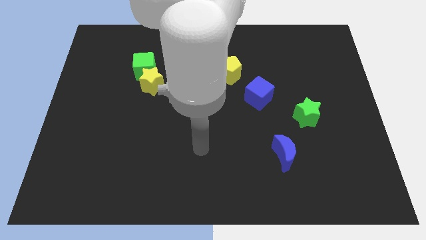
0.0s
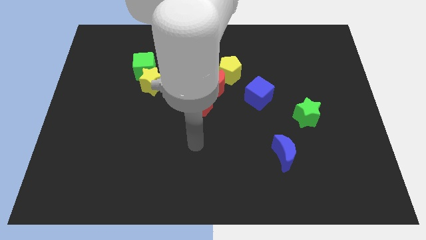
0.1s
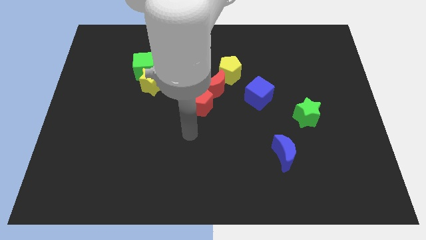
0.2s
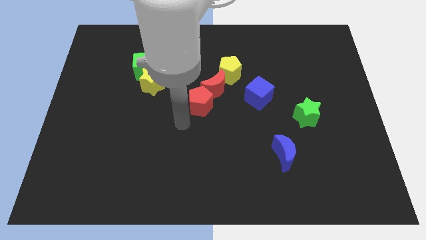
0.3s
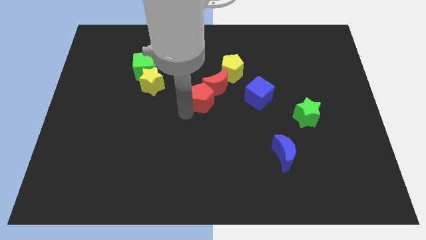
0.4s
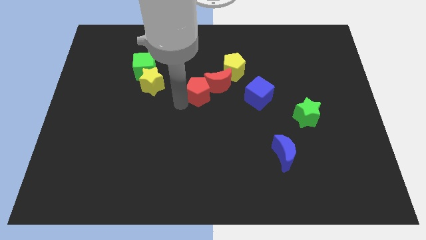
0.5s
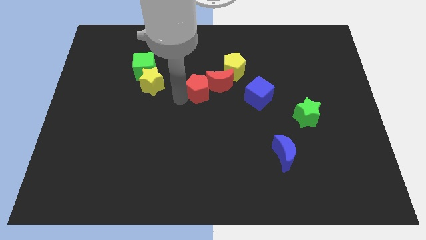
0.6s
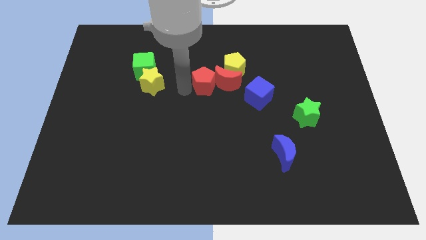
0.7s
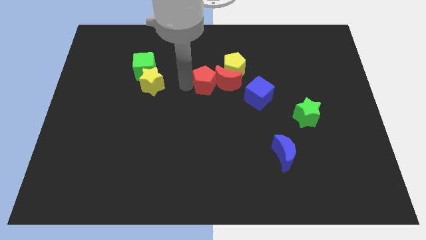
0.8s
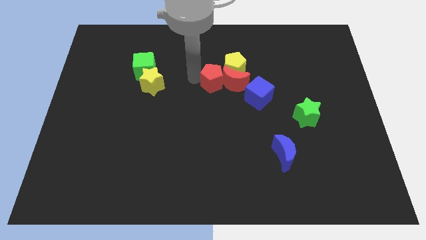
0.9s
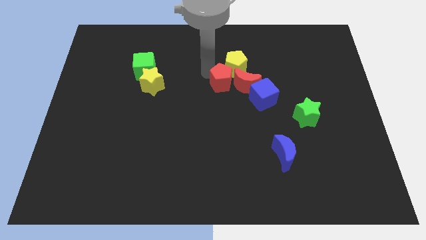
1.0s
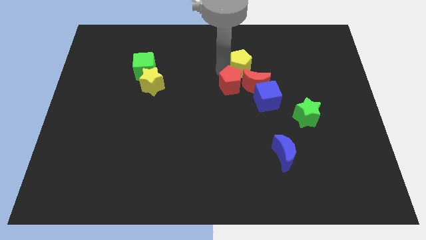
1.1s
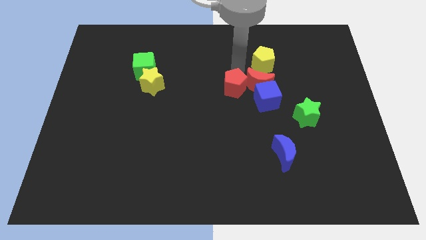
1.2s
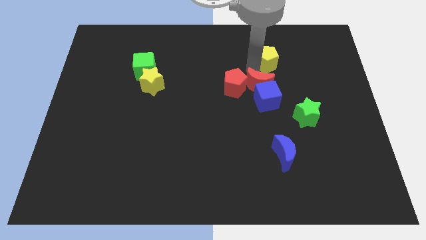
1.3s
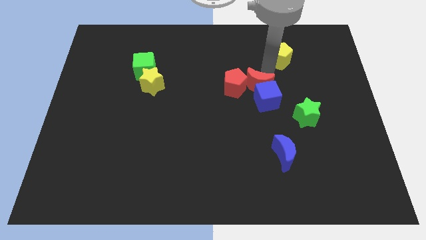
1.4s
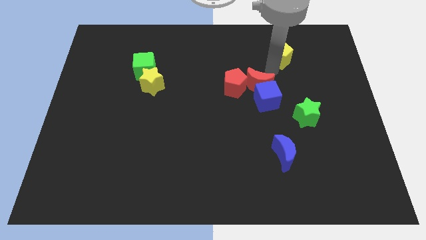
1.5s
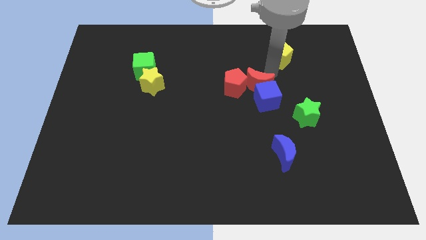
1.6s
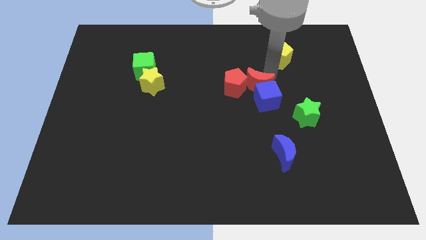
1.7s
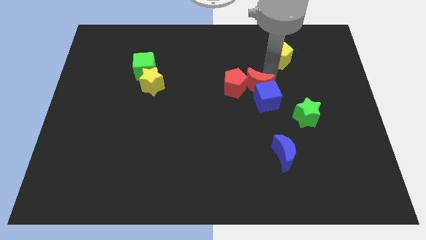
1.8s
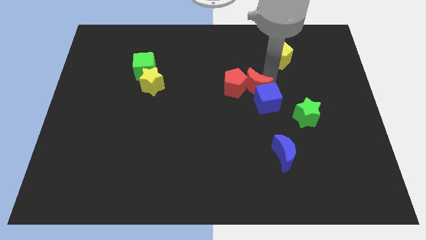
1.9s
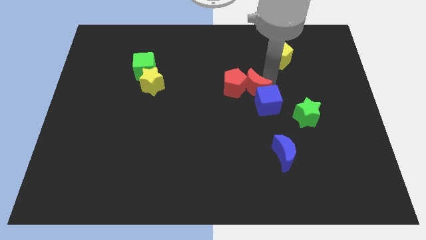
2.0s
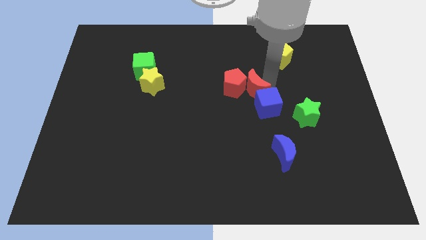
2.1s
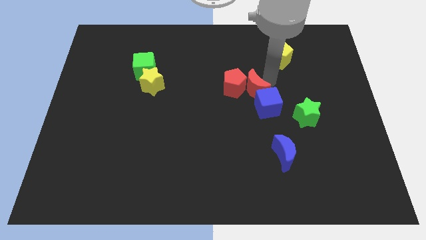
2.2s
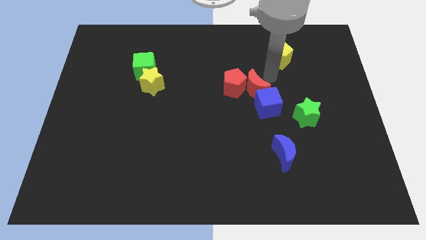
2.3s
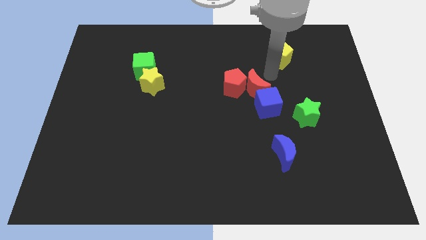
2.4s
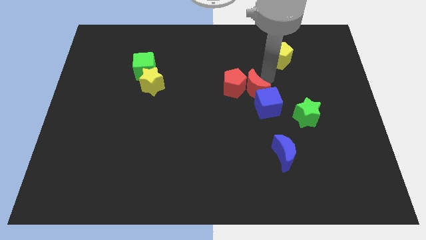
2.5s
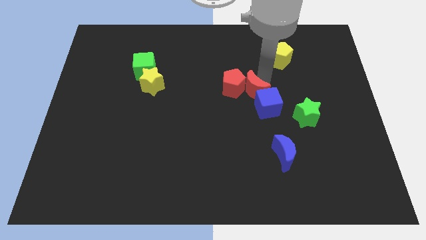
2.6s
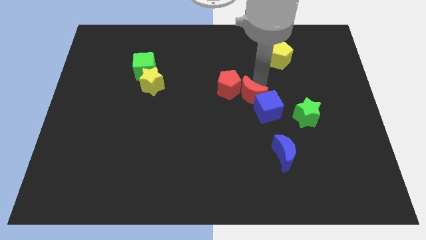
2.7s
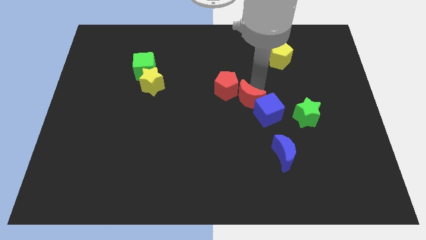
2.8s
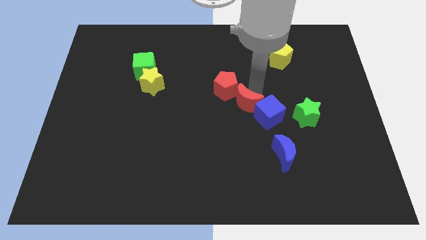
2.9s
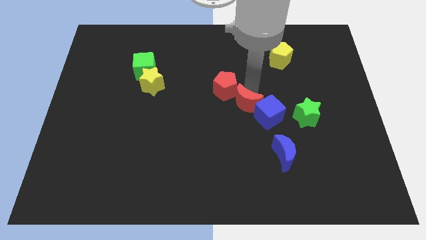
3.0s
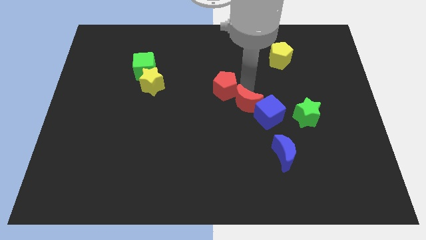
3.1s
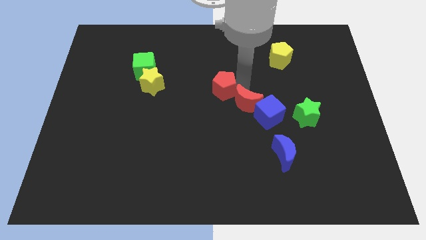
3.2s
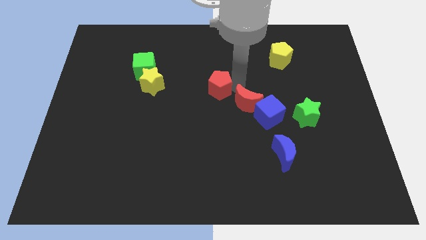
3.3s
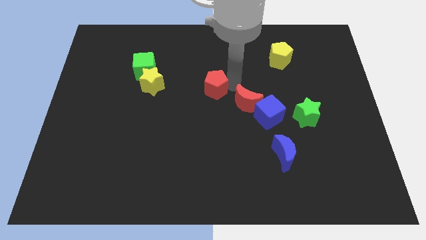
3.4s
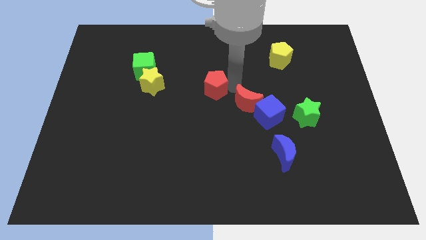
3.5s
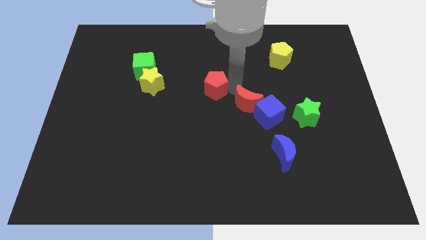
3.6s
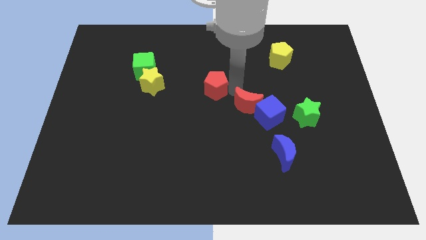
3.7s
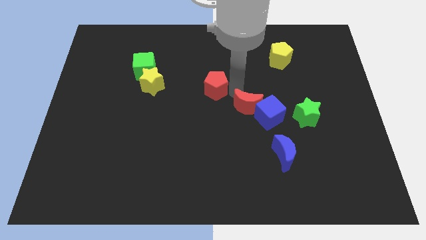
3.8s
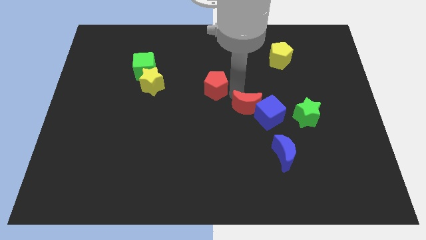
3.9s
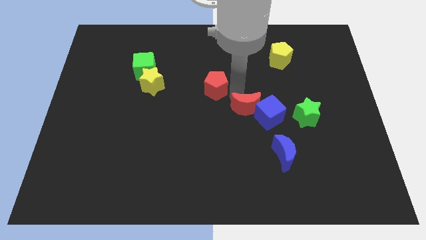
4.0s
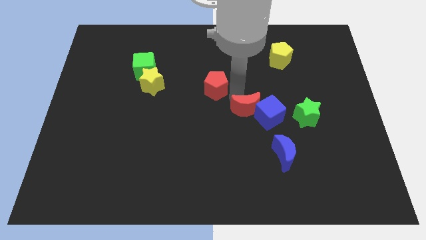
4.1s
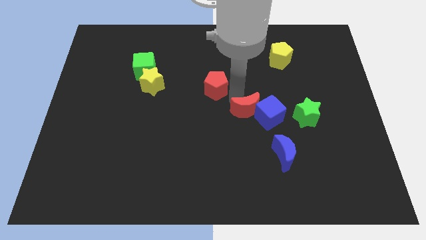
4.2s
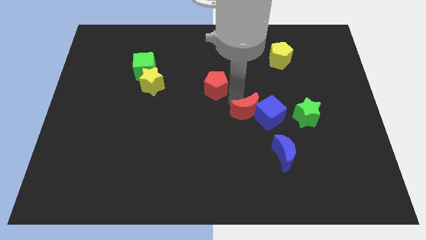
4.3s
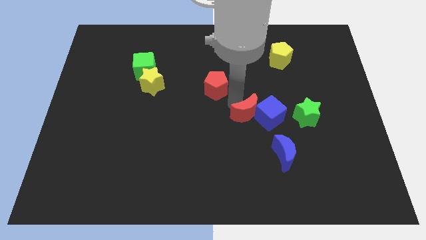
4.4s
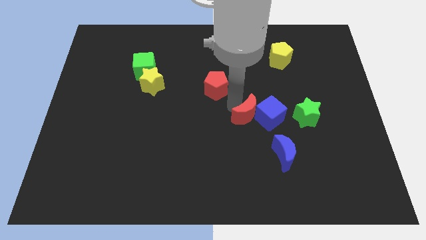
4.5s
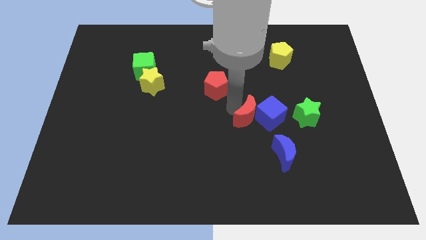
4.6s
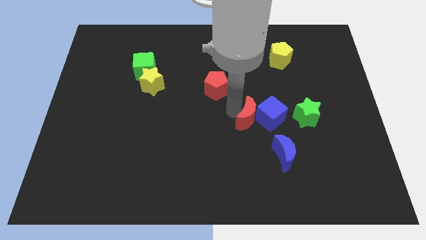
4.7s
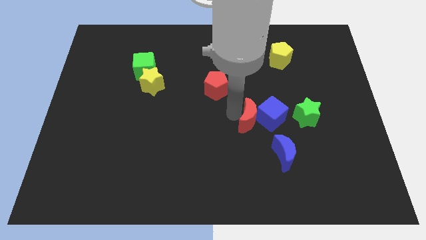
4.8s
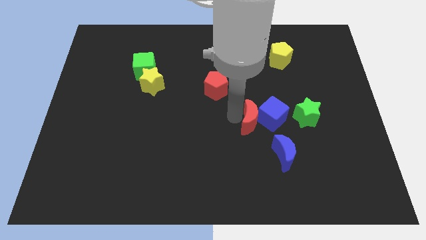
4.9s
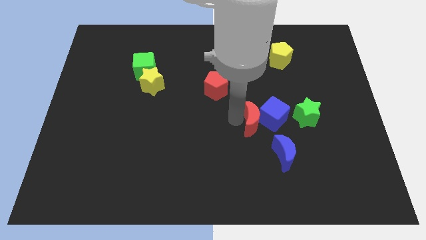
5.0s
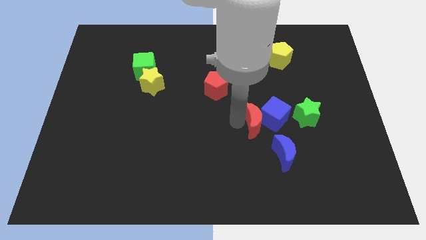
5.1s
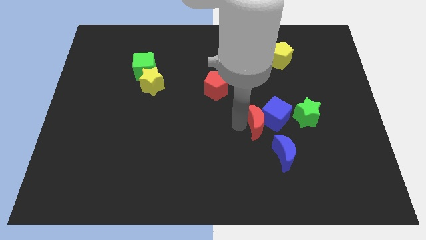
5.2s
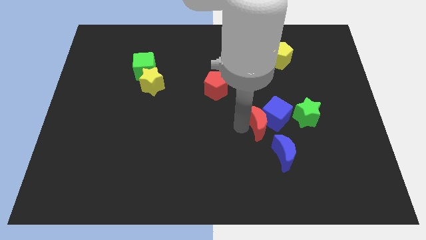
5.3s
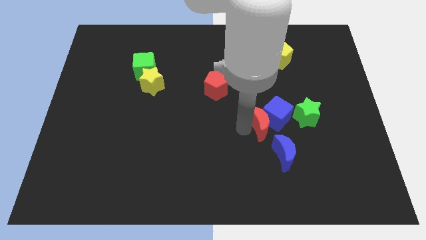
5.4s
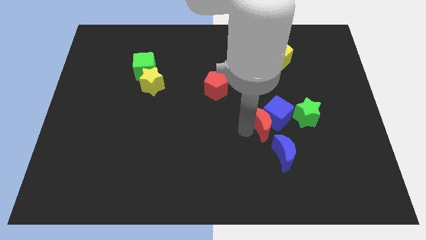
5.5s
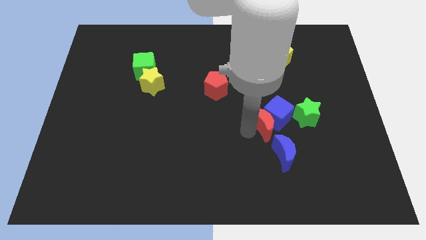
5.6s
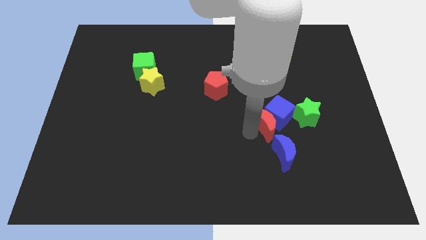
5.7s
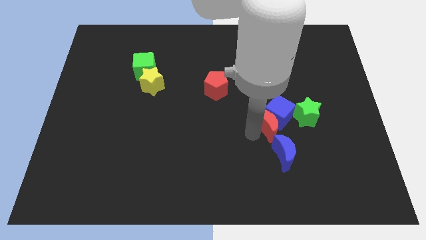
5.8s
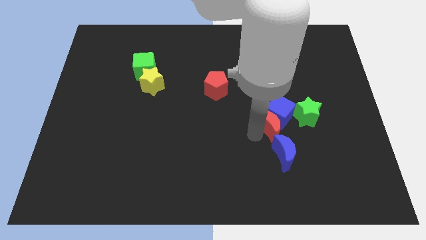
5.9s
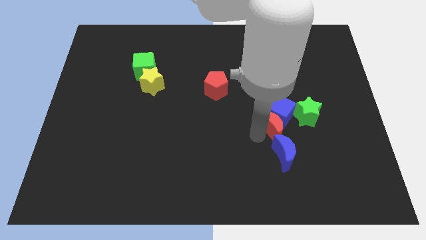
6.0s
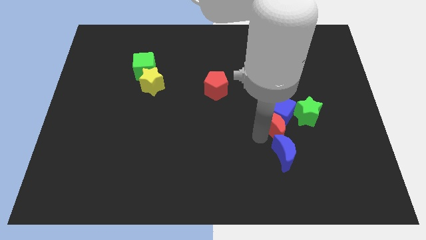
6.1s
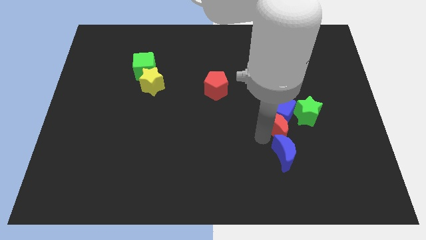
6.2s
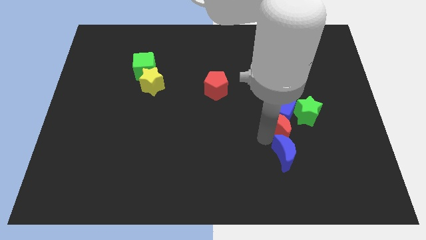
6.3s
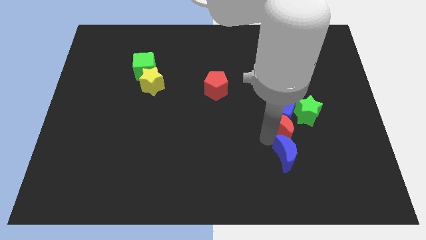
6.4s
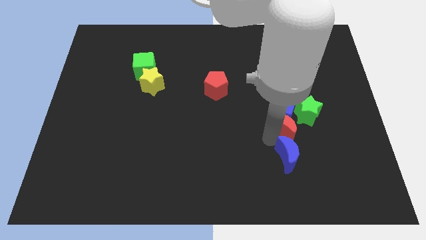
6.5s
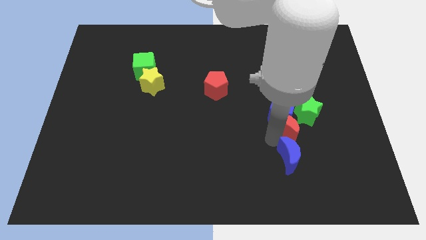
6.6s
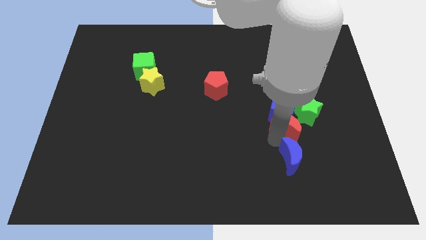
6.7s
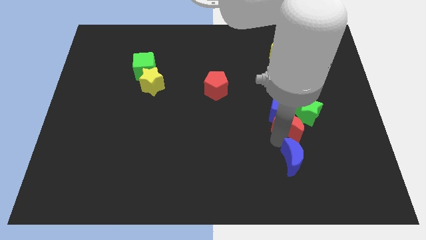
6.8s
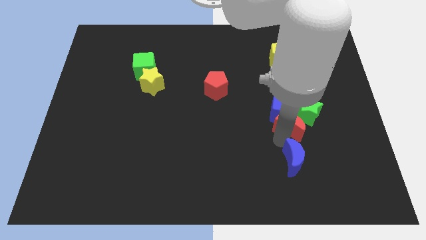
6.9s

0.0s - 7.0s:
move the red moon towards the green star

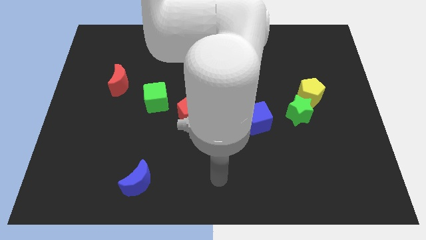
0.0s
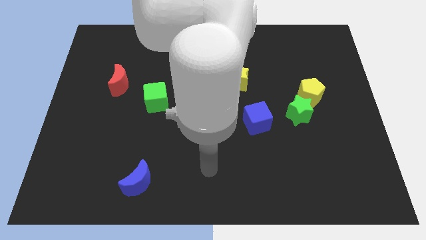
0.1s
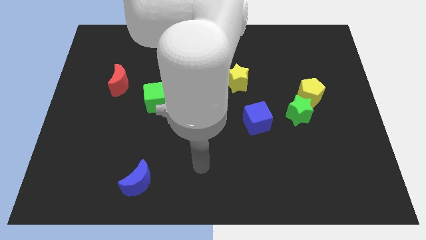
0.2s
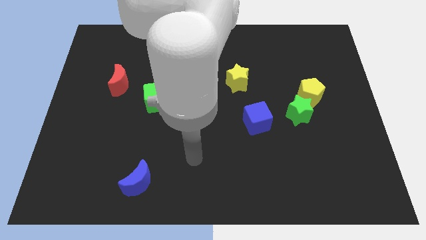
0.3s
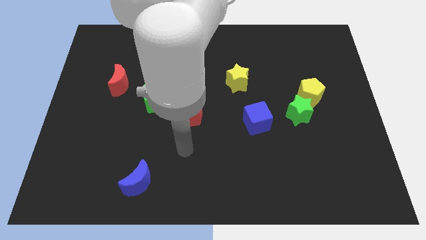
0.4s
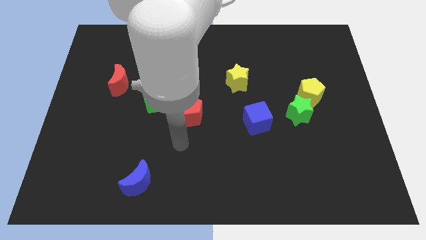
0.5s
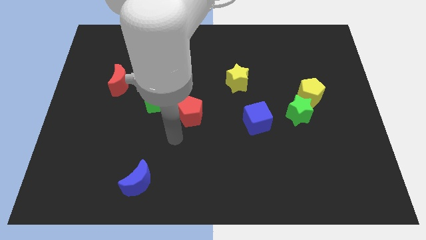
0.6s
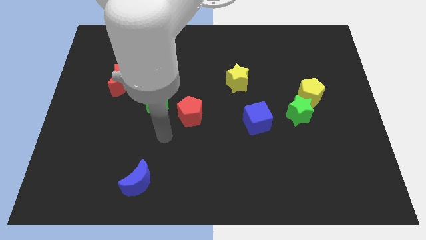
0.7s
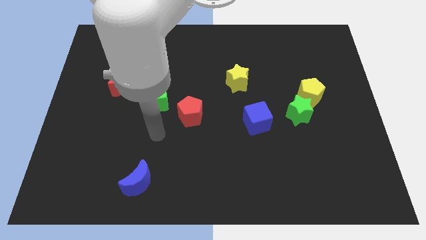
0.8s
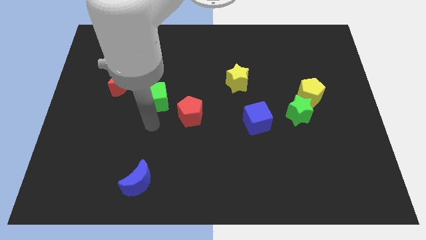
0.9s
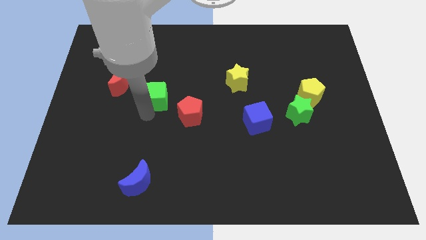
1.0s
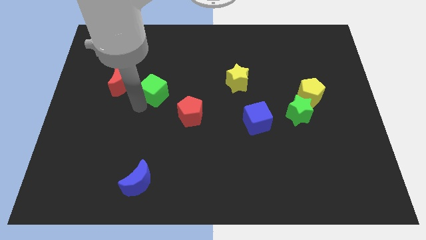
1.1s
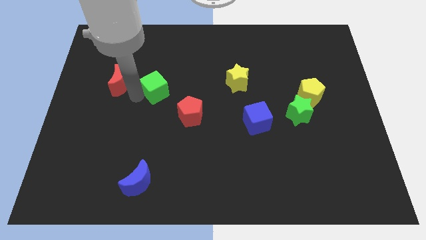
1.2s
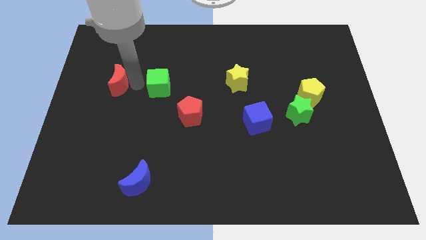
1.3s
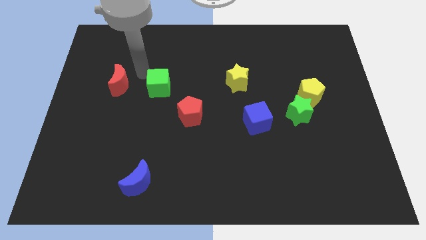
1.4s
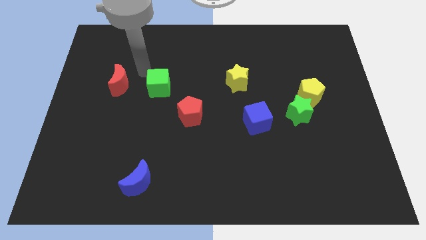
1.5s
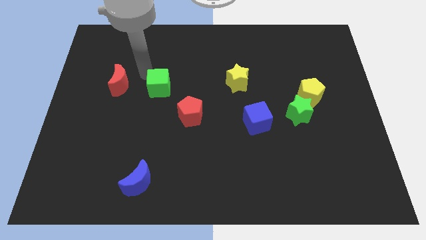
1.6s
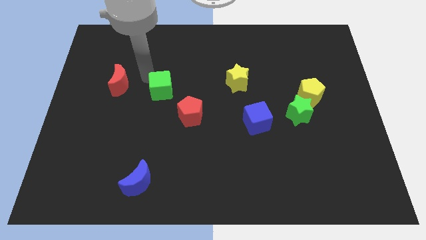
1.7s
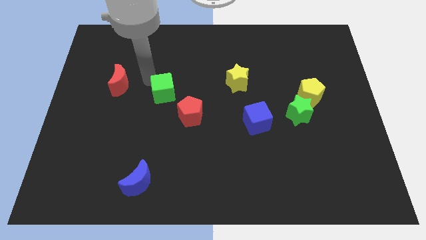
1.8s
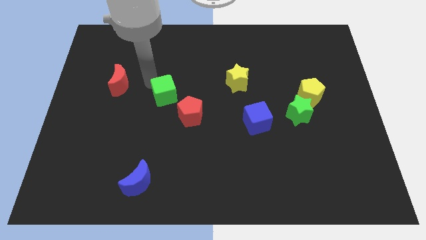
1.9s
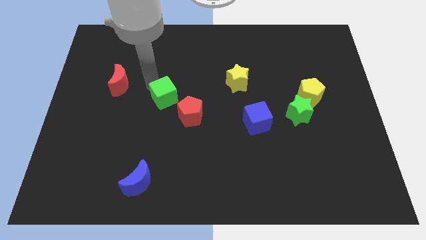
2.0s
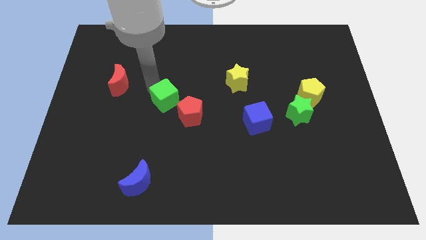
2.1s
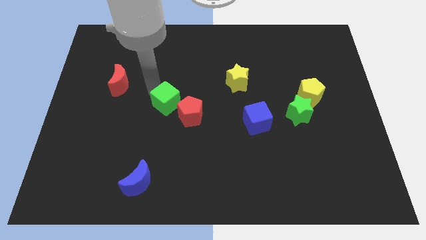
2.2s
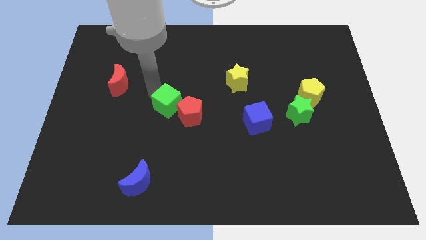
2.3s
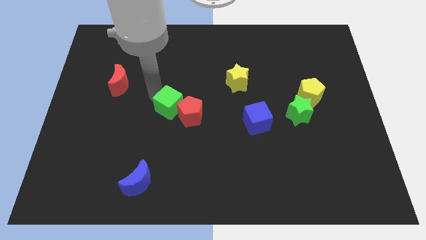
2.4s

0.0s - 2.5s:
push the green cube towards the red pentagon
